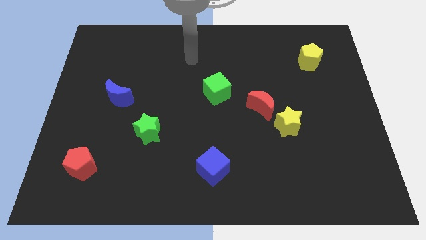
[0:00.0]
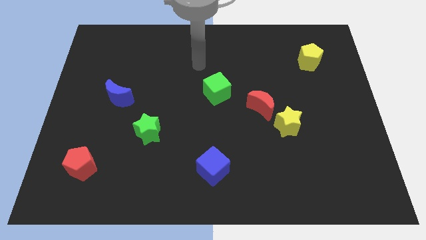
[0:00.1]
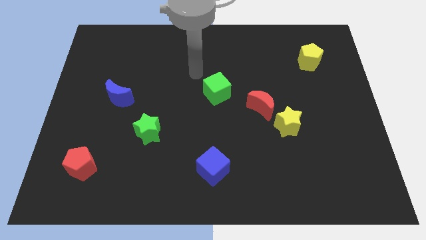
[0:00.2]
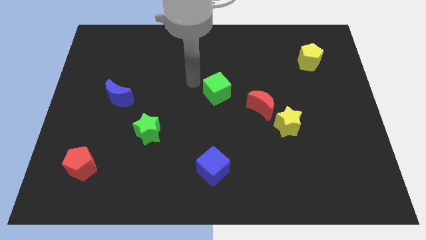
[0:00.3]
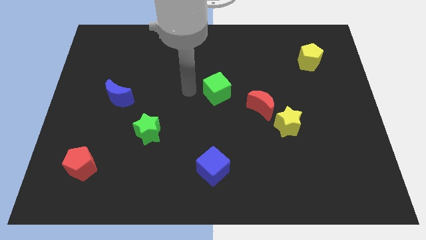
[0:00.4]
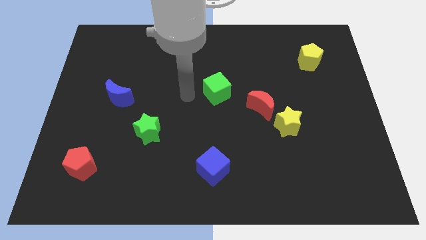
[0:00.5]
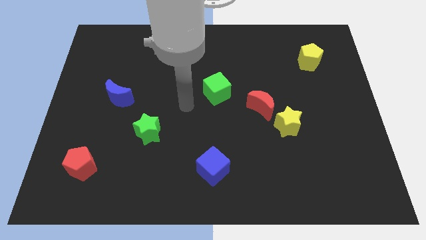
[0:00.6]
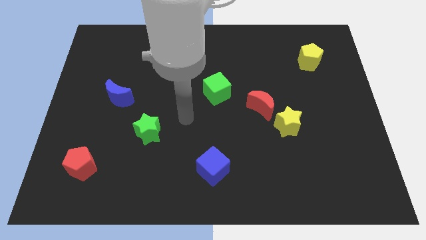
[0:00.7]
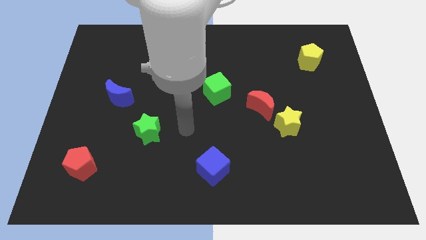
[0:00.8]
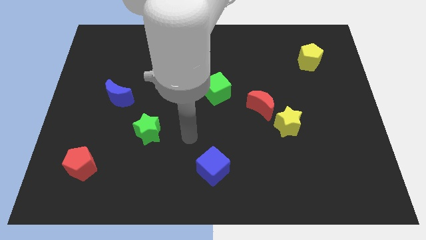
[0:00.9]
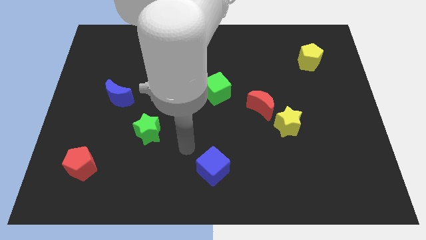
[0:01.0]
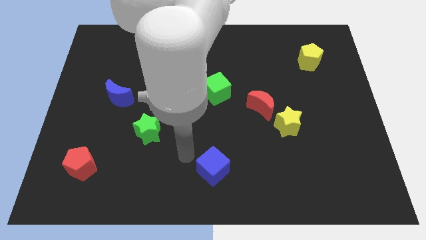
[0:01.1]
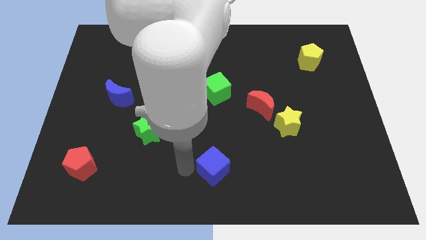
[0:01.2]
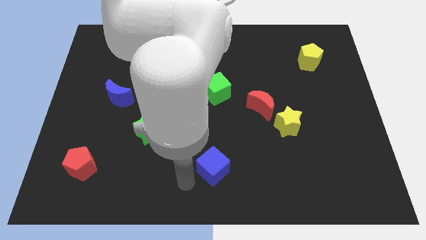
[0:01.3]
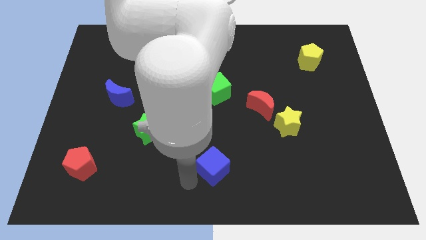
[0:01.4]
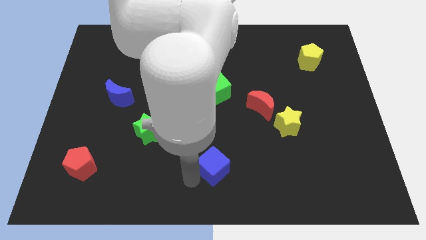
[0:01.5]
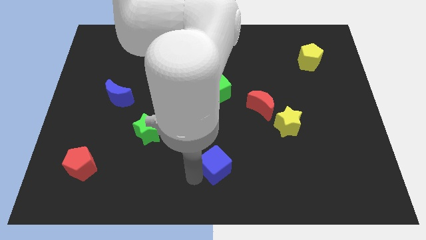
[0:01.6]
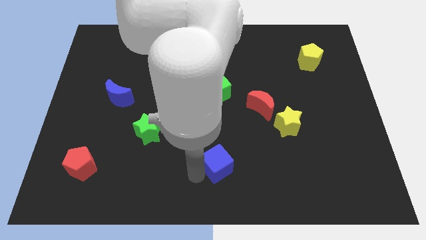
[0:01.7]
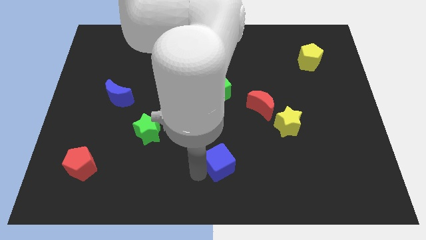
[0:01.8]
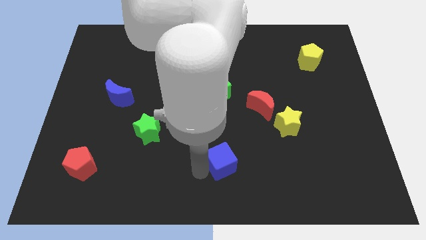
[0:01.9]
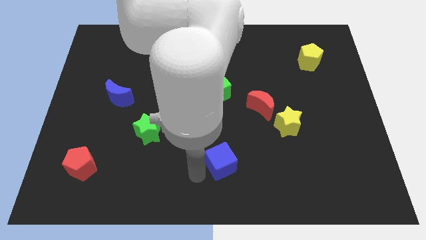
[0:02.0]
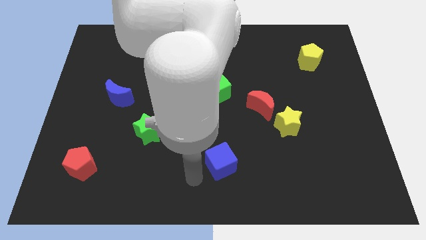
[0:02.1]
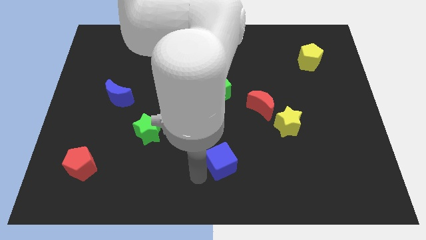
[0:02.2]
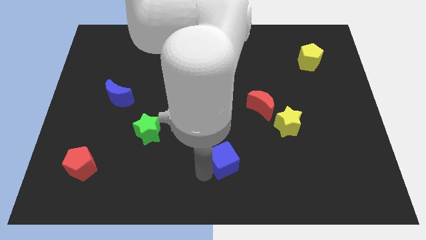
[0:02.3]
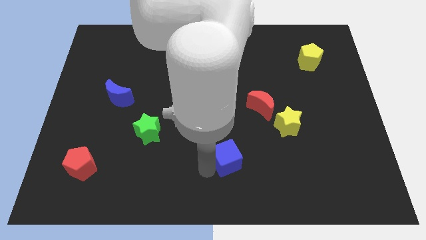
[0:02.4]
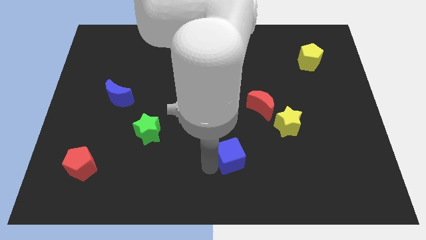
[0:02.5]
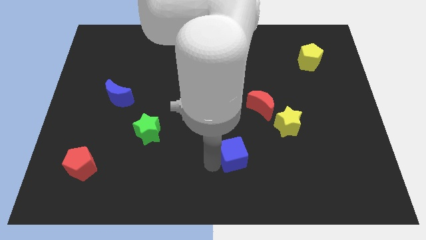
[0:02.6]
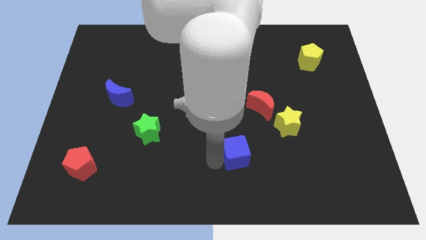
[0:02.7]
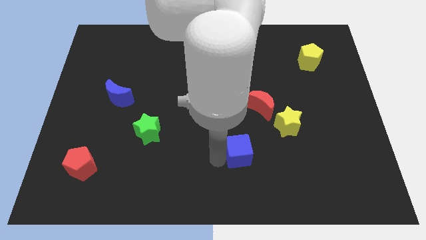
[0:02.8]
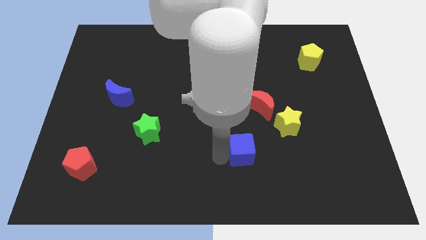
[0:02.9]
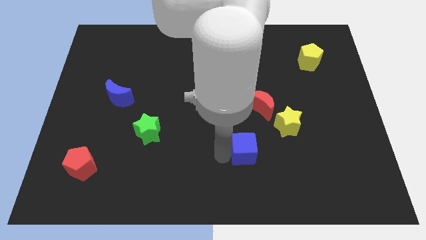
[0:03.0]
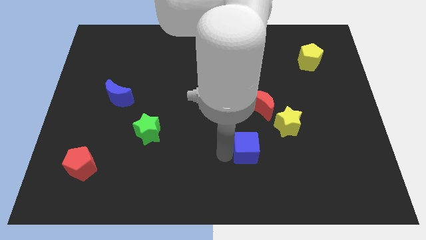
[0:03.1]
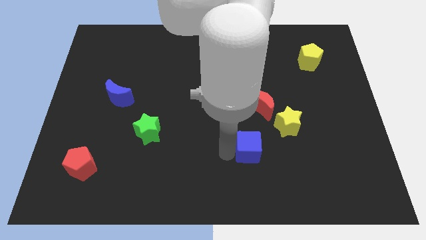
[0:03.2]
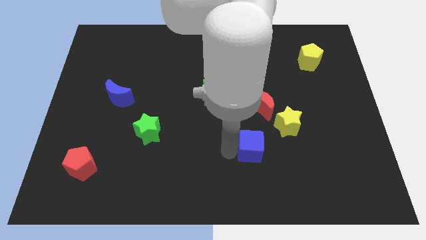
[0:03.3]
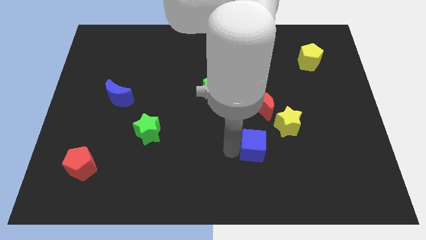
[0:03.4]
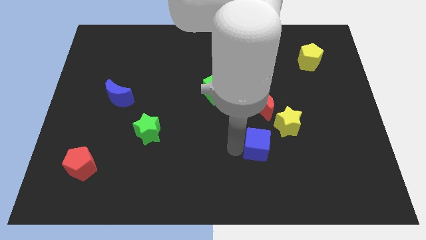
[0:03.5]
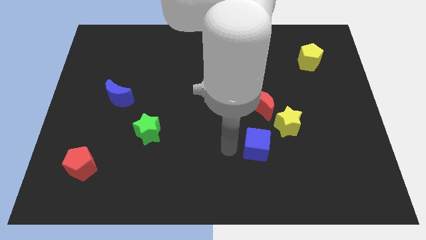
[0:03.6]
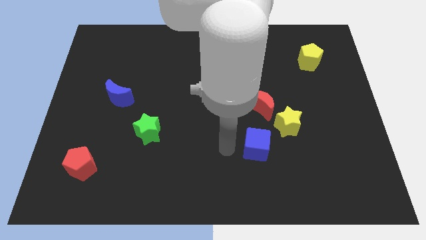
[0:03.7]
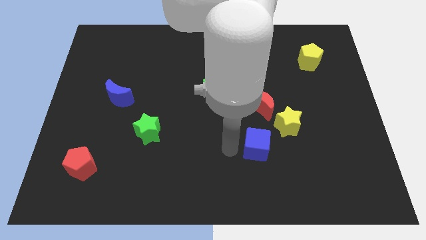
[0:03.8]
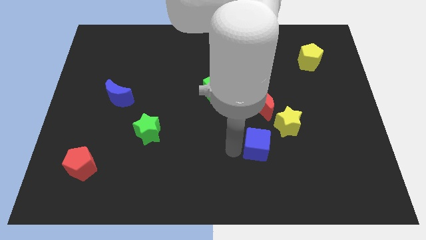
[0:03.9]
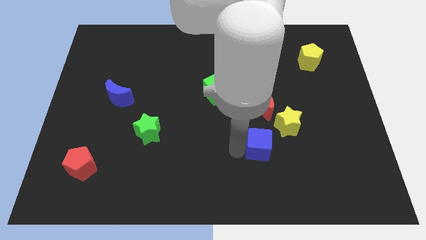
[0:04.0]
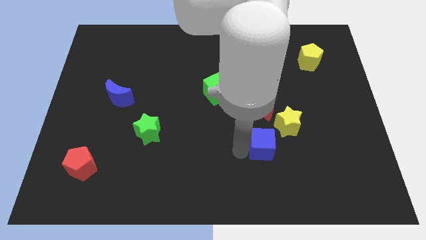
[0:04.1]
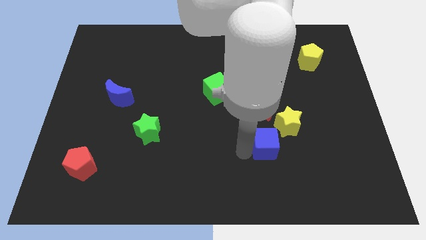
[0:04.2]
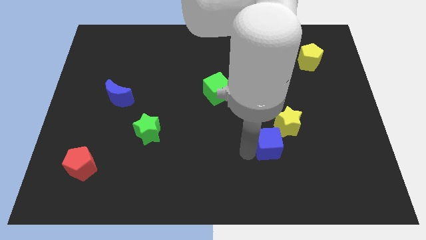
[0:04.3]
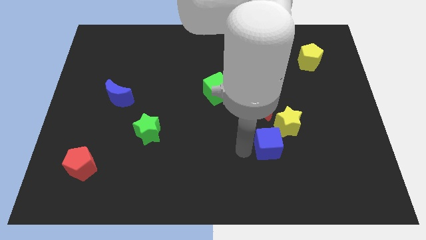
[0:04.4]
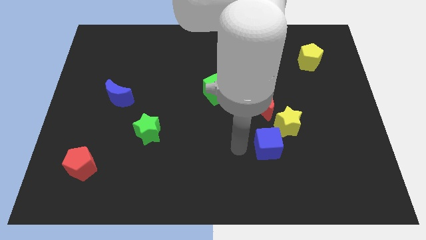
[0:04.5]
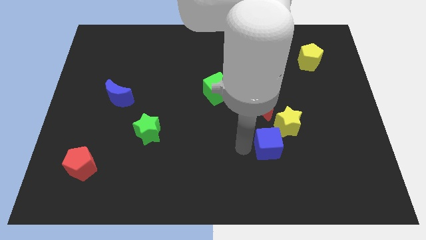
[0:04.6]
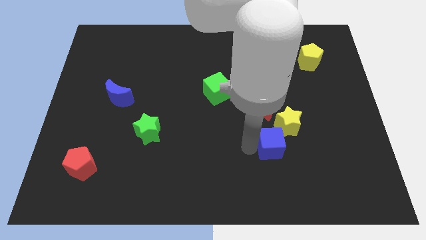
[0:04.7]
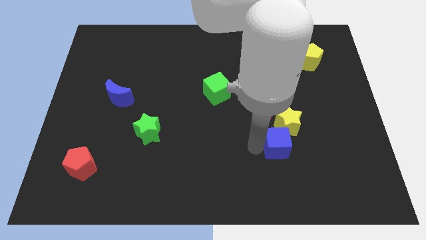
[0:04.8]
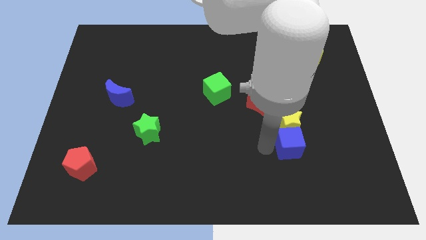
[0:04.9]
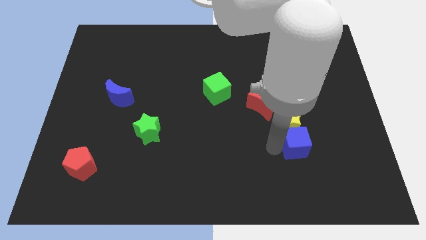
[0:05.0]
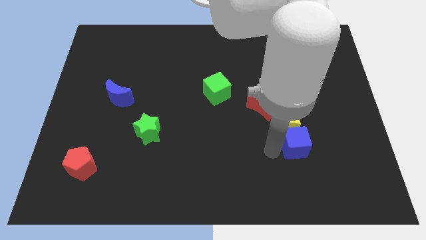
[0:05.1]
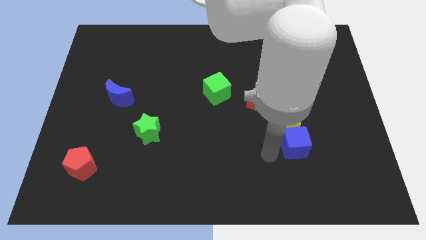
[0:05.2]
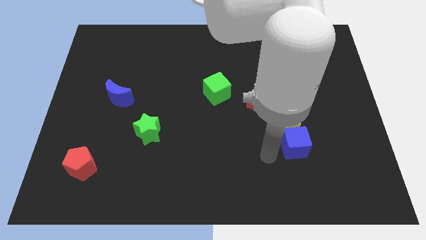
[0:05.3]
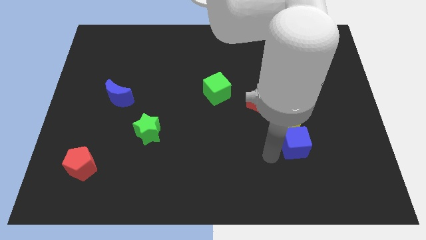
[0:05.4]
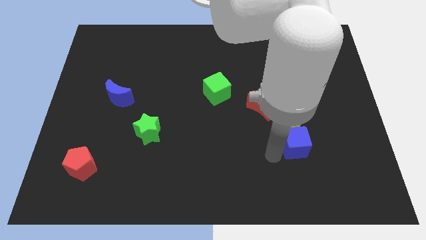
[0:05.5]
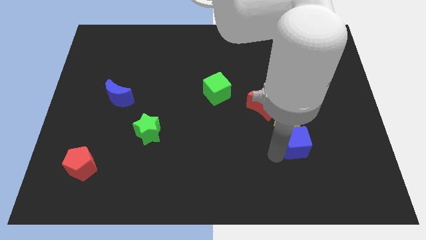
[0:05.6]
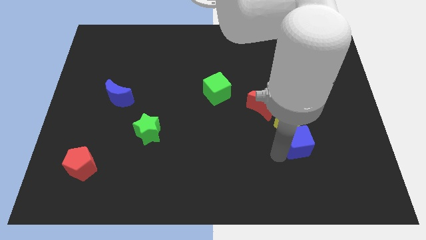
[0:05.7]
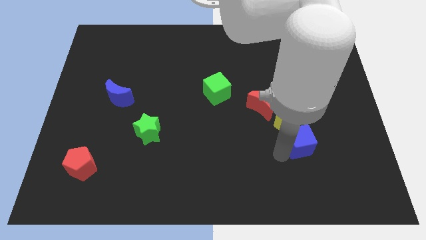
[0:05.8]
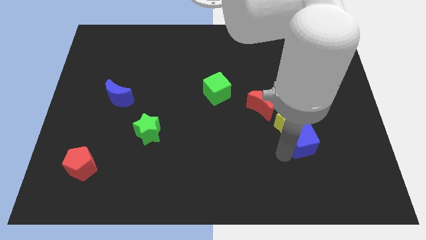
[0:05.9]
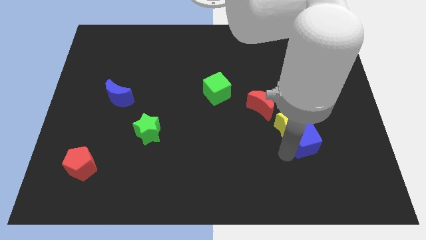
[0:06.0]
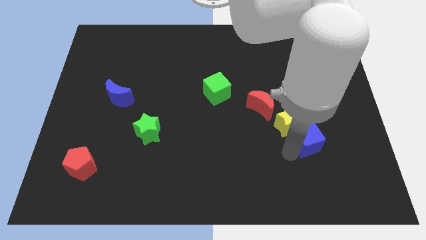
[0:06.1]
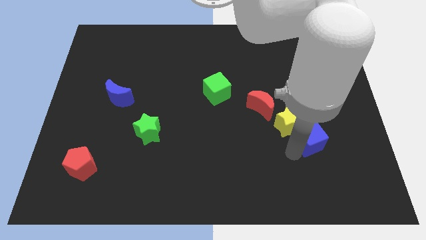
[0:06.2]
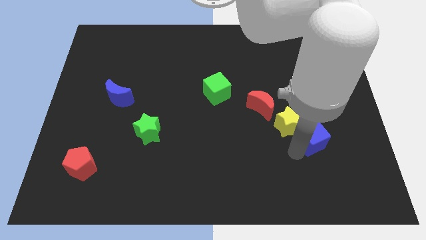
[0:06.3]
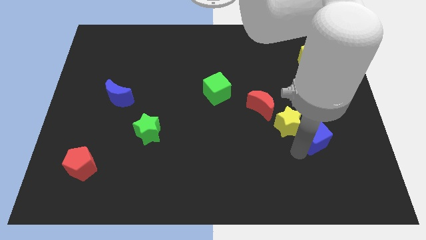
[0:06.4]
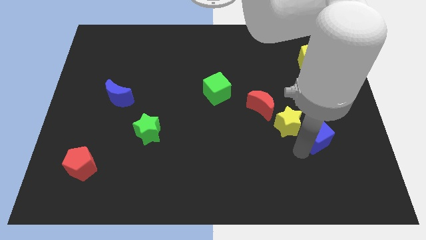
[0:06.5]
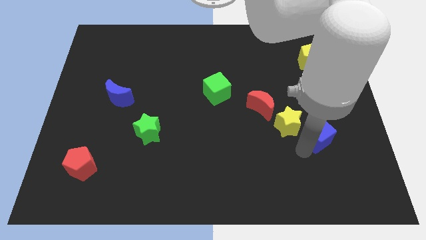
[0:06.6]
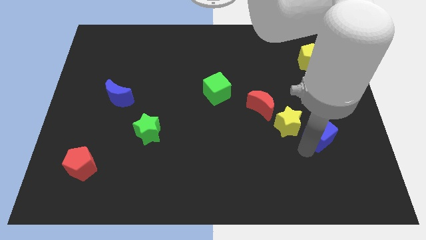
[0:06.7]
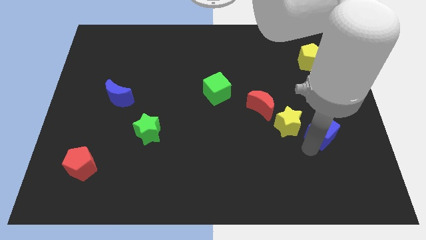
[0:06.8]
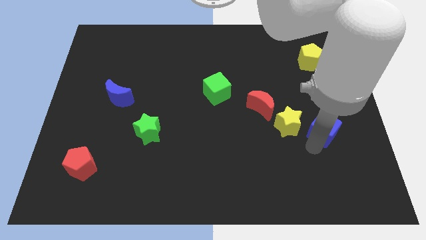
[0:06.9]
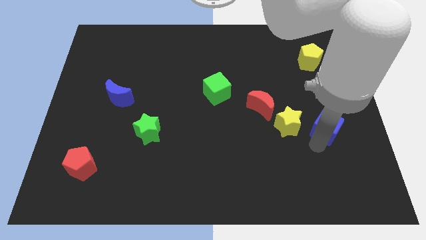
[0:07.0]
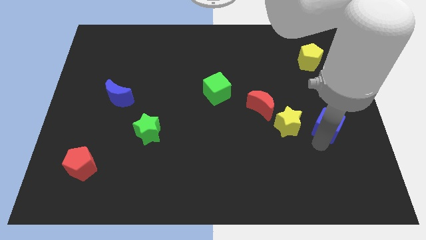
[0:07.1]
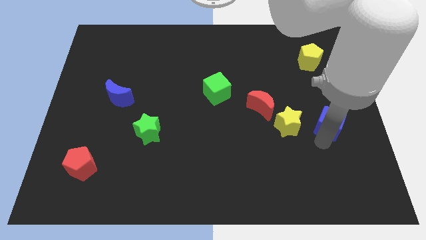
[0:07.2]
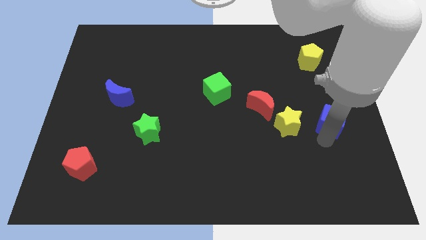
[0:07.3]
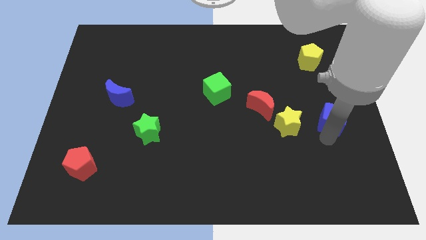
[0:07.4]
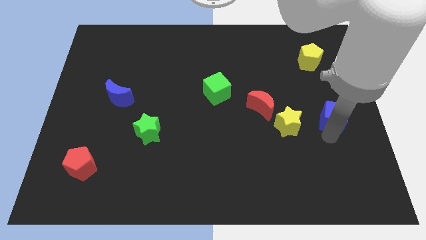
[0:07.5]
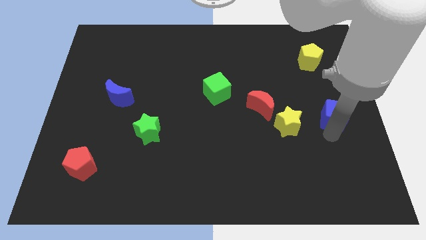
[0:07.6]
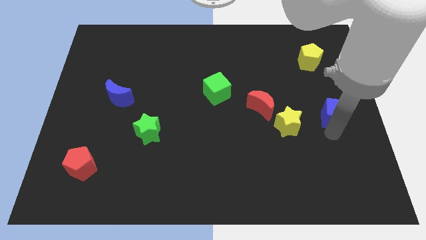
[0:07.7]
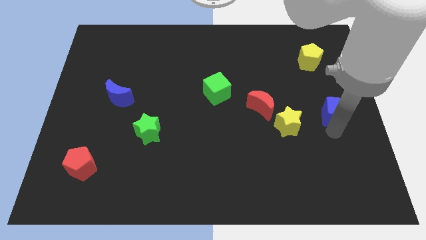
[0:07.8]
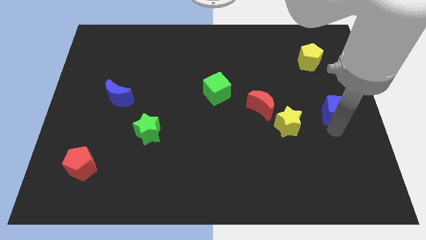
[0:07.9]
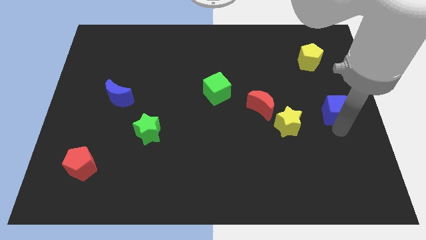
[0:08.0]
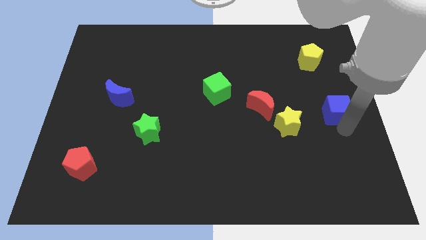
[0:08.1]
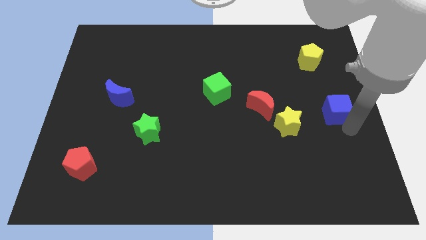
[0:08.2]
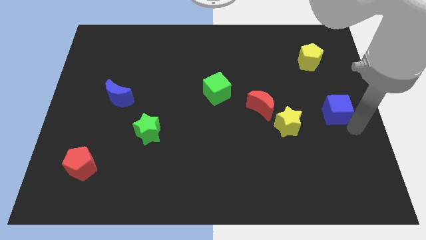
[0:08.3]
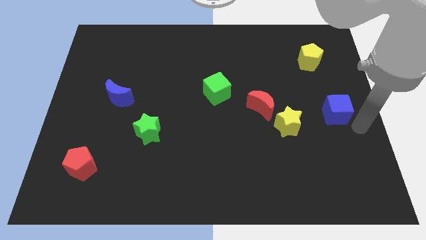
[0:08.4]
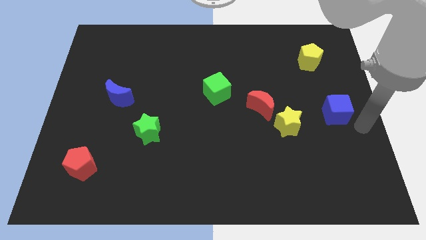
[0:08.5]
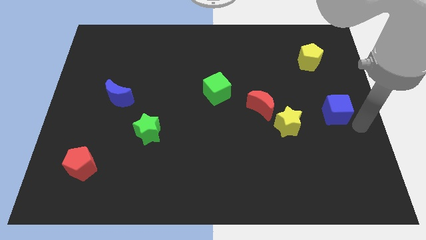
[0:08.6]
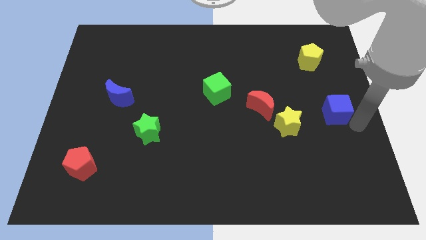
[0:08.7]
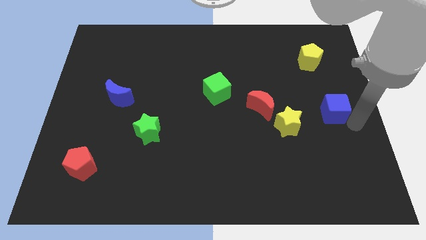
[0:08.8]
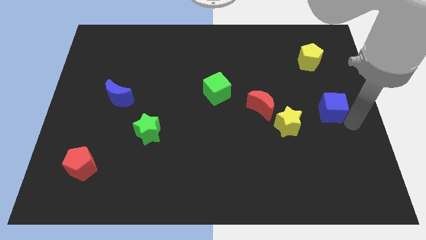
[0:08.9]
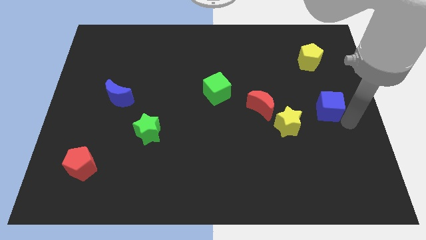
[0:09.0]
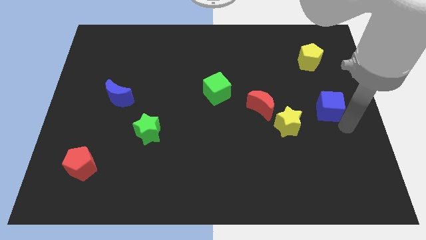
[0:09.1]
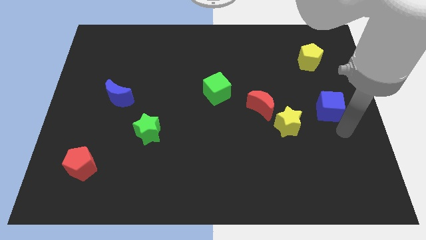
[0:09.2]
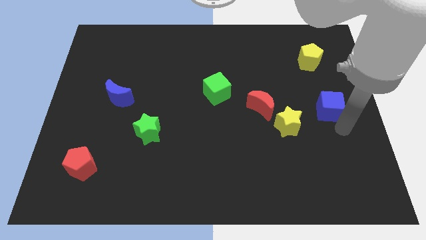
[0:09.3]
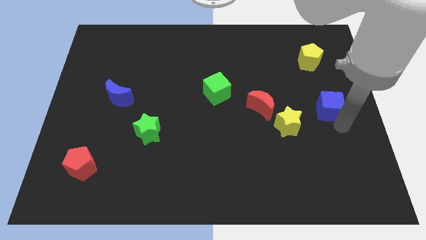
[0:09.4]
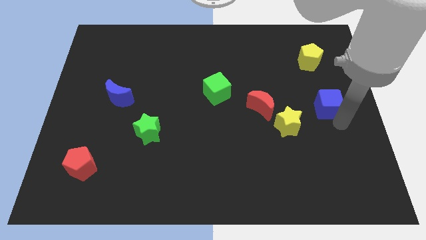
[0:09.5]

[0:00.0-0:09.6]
push the blue cube to the bottom side of the yellow pentagon
